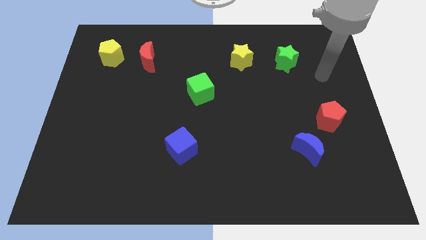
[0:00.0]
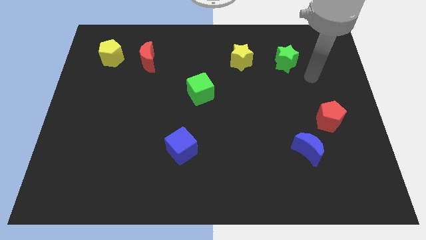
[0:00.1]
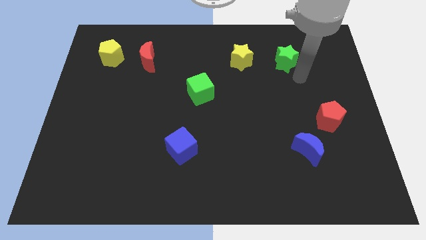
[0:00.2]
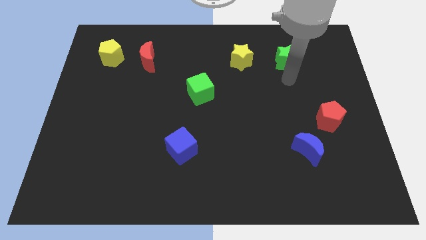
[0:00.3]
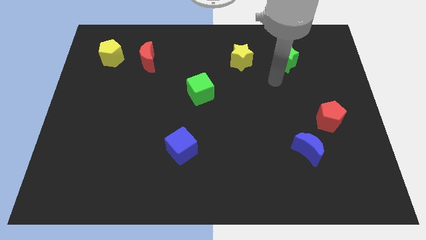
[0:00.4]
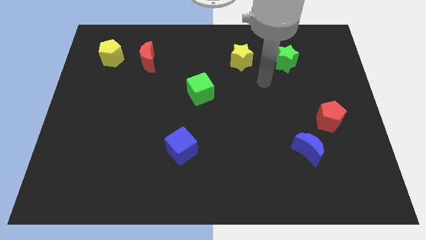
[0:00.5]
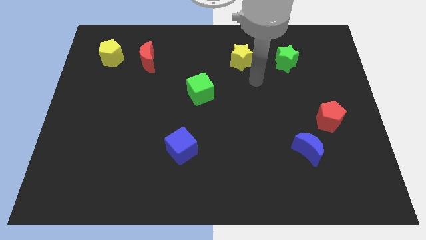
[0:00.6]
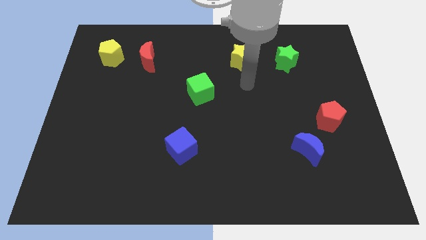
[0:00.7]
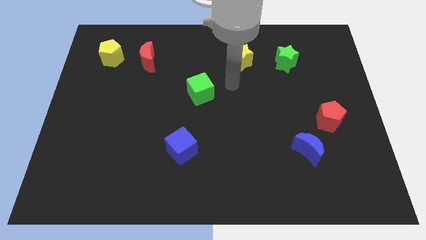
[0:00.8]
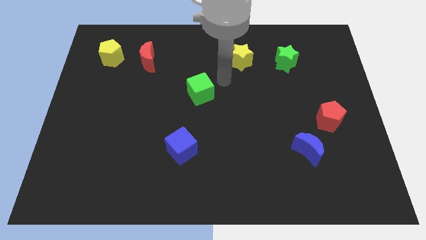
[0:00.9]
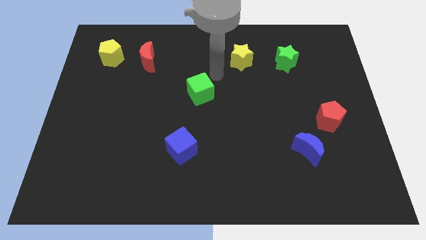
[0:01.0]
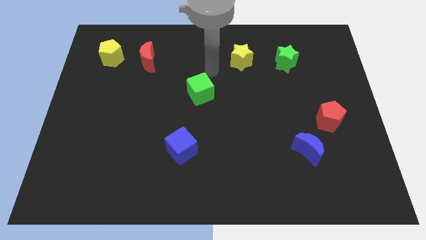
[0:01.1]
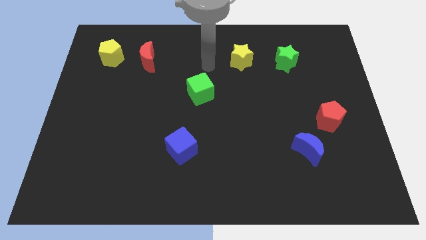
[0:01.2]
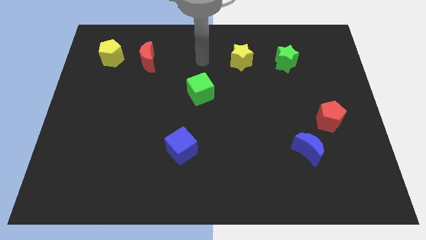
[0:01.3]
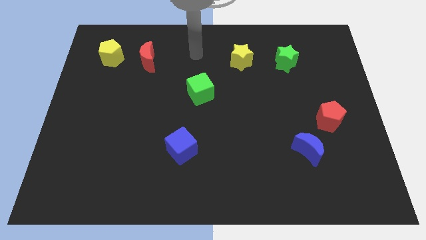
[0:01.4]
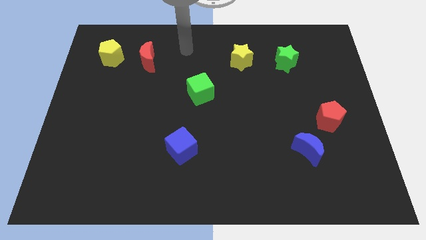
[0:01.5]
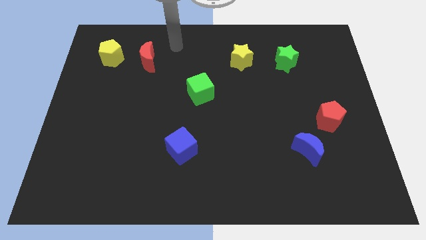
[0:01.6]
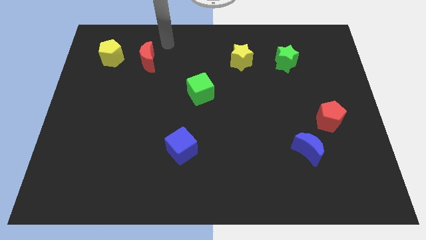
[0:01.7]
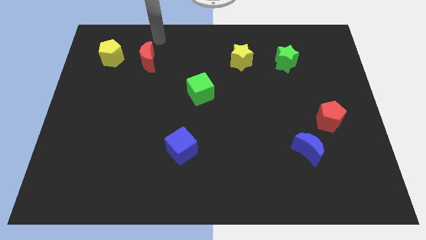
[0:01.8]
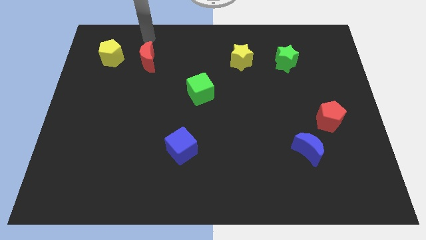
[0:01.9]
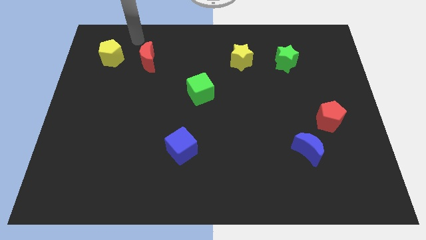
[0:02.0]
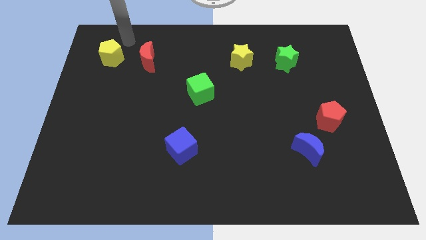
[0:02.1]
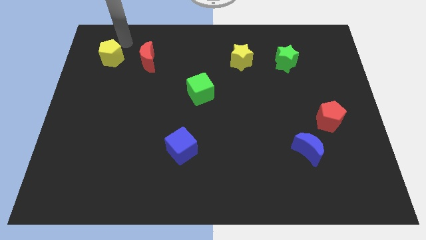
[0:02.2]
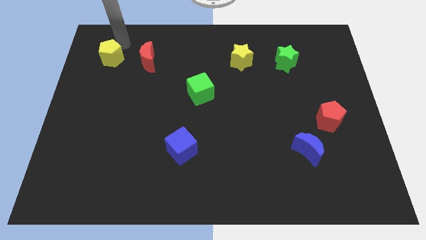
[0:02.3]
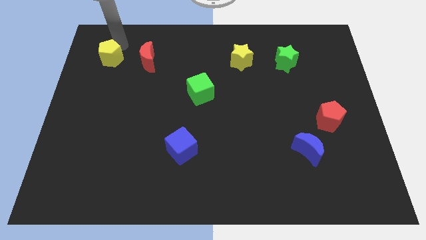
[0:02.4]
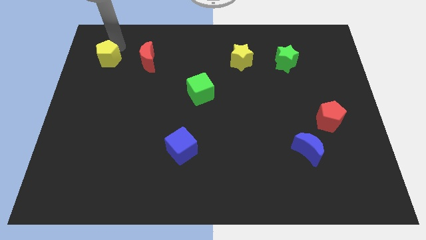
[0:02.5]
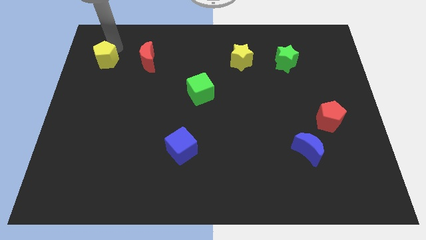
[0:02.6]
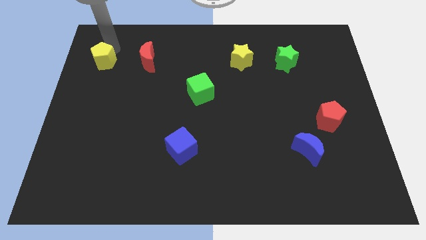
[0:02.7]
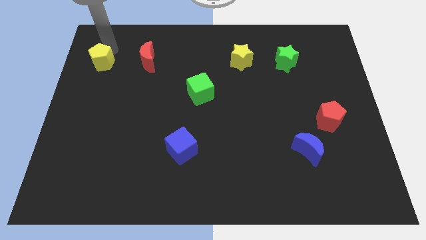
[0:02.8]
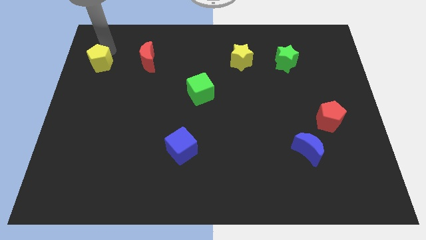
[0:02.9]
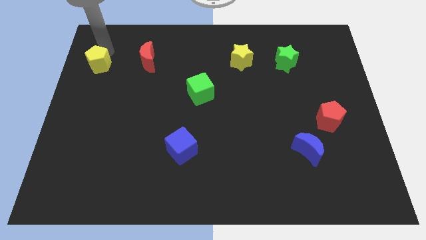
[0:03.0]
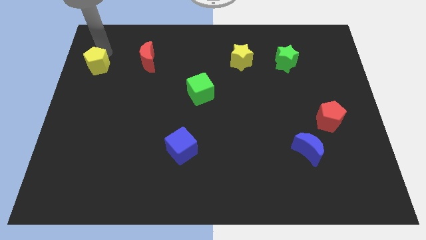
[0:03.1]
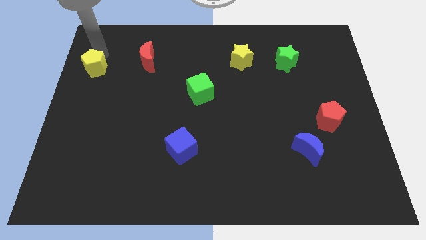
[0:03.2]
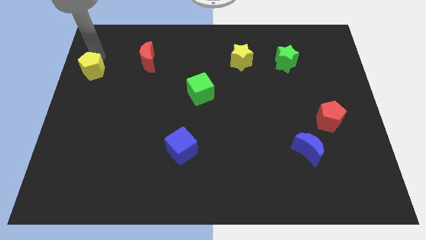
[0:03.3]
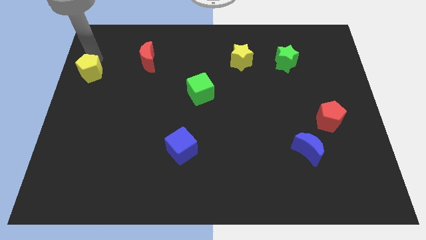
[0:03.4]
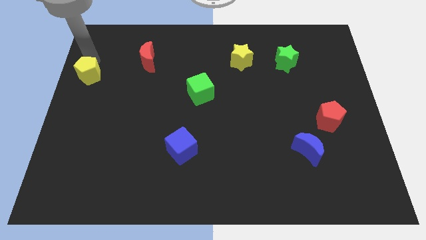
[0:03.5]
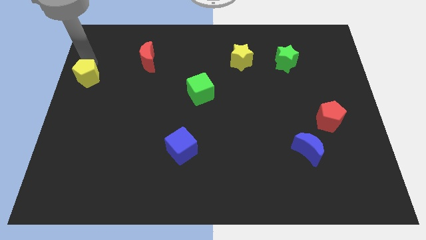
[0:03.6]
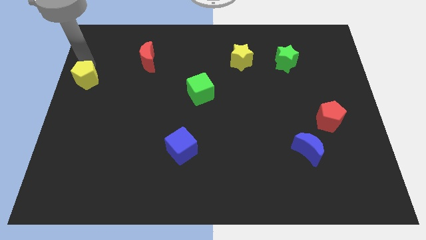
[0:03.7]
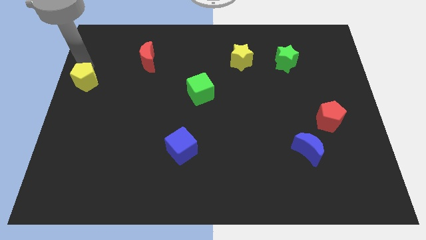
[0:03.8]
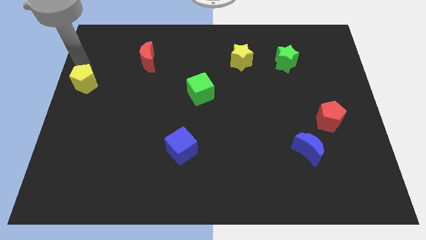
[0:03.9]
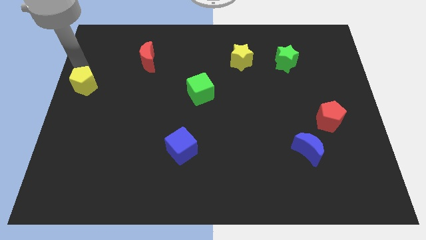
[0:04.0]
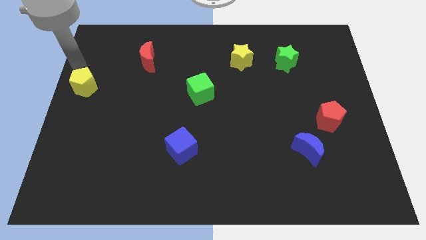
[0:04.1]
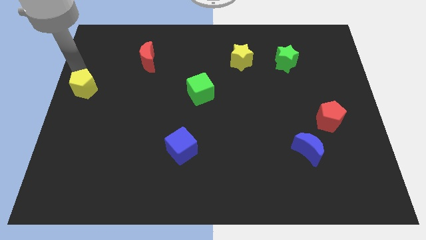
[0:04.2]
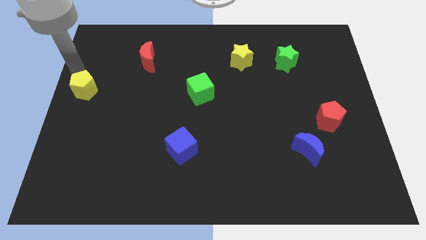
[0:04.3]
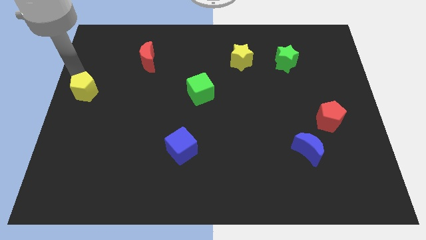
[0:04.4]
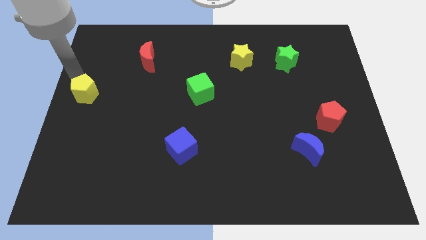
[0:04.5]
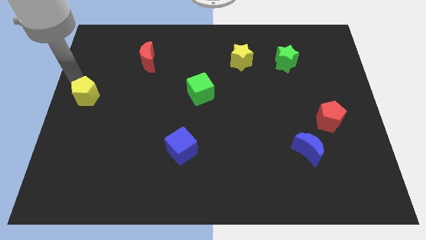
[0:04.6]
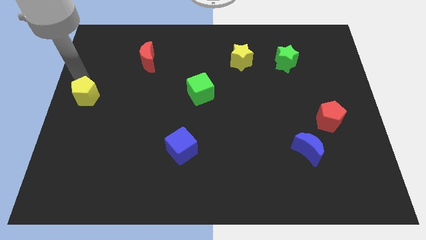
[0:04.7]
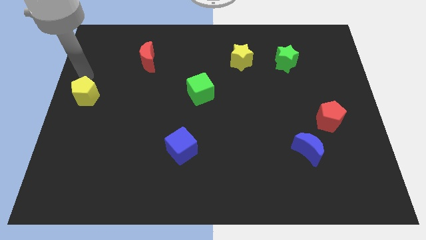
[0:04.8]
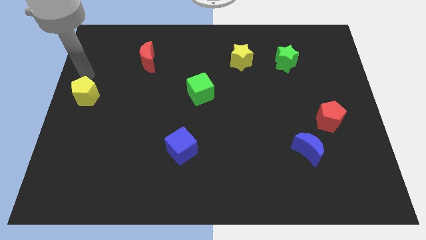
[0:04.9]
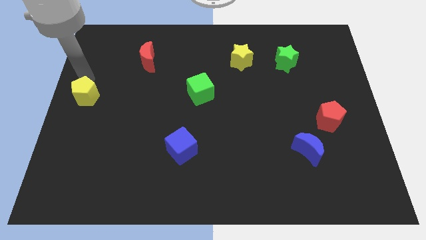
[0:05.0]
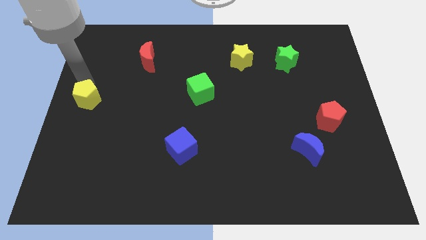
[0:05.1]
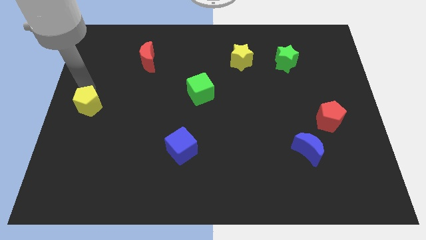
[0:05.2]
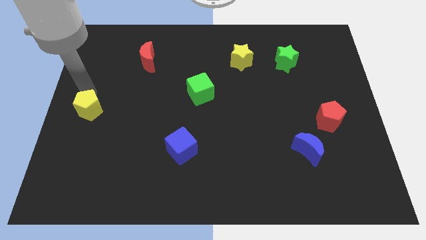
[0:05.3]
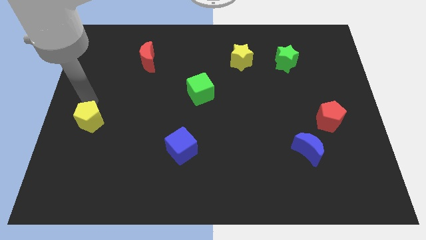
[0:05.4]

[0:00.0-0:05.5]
slide the yellow pentagon down

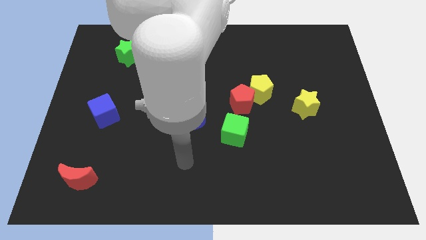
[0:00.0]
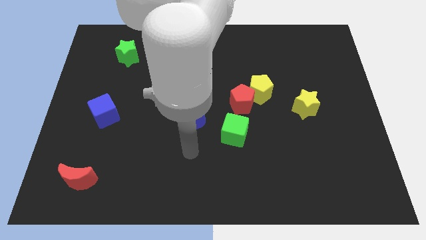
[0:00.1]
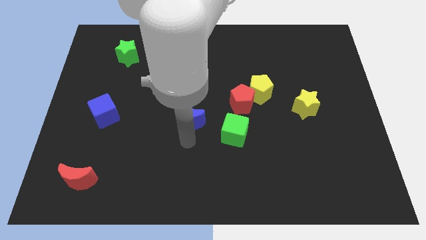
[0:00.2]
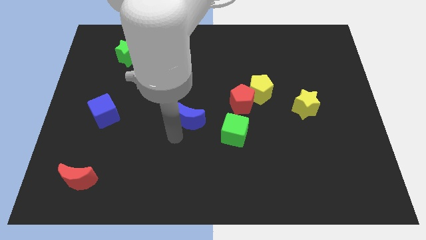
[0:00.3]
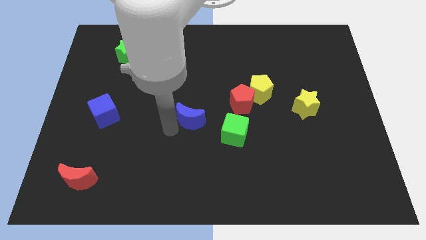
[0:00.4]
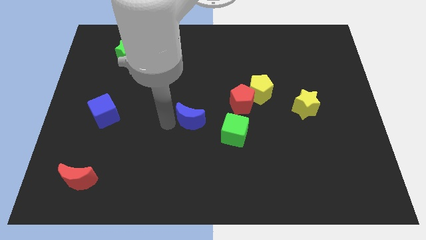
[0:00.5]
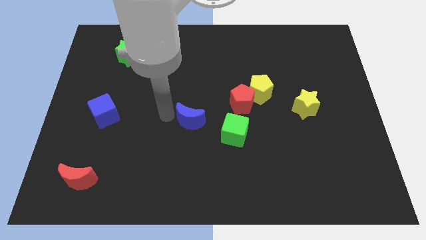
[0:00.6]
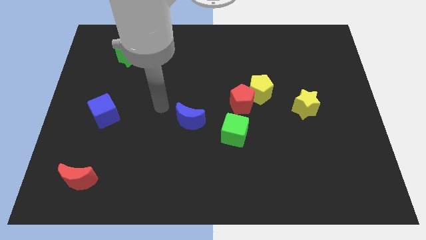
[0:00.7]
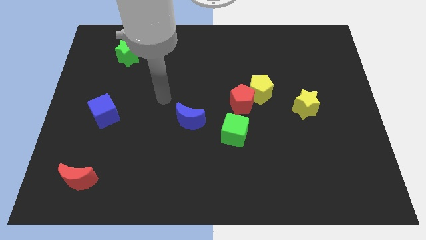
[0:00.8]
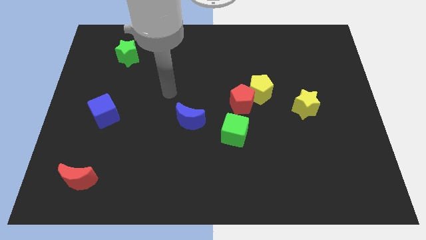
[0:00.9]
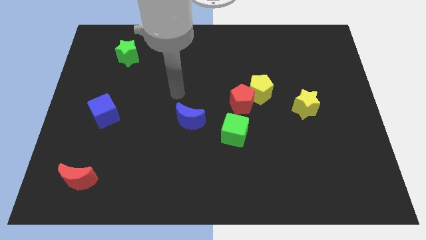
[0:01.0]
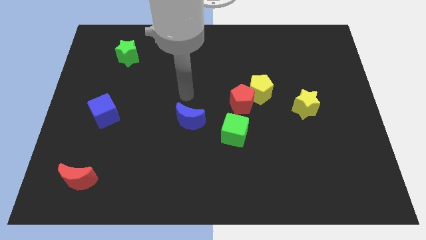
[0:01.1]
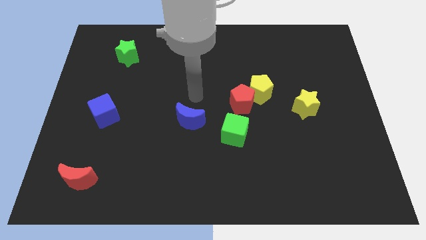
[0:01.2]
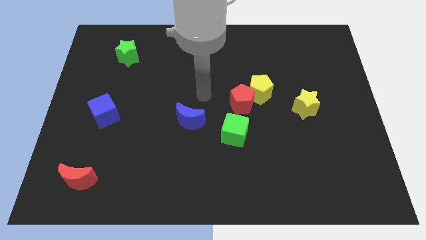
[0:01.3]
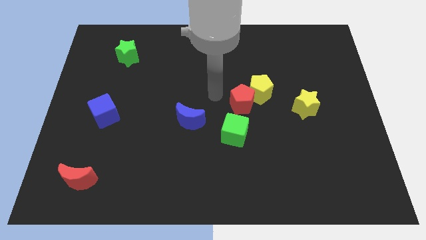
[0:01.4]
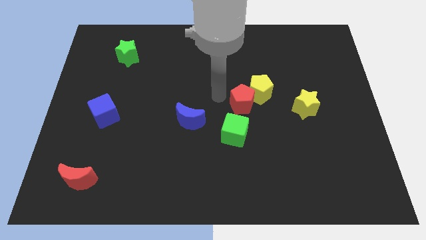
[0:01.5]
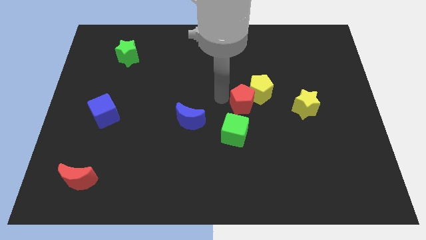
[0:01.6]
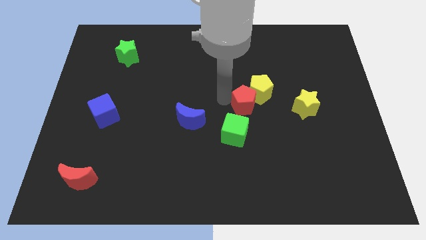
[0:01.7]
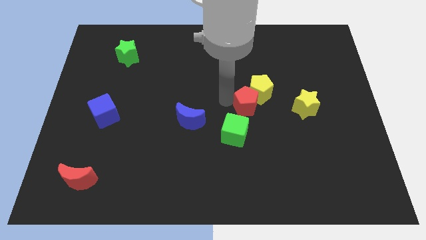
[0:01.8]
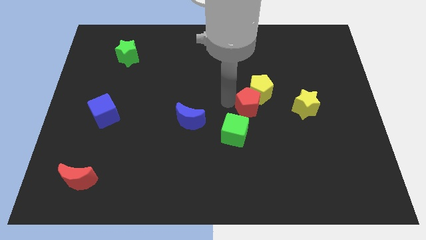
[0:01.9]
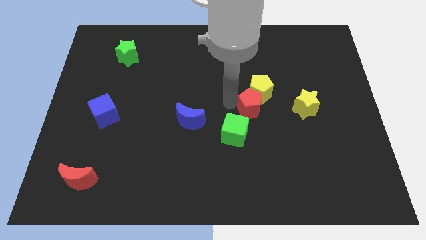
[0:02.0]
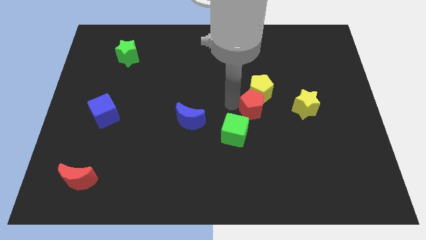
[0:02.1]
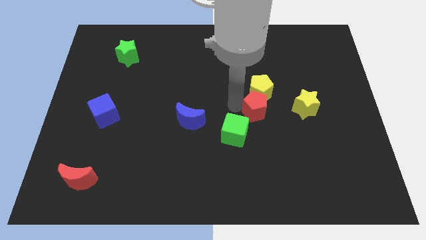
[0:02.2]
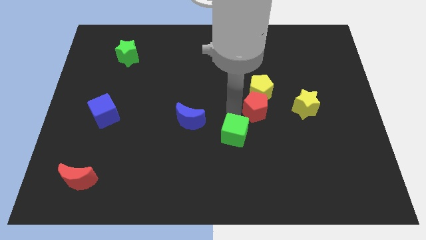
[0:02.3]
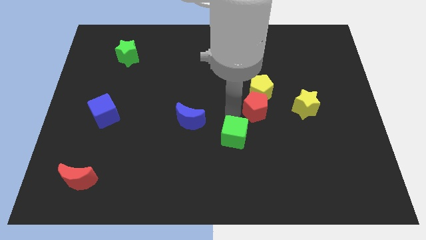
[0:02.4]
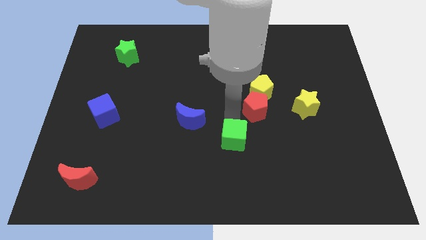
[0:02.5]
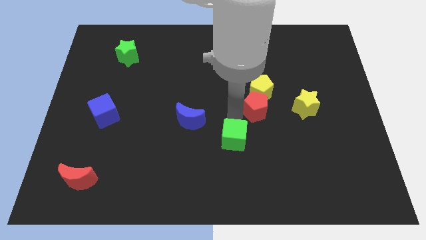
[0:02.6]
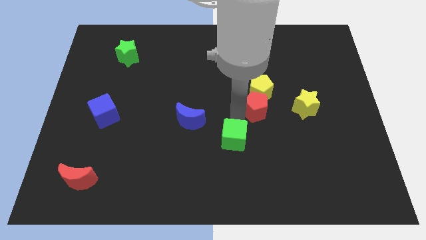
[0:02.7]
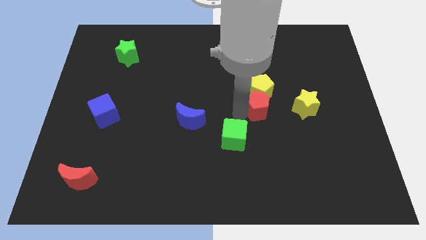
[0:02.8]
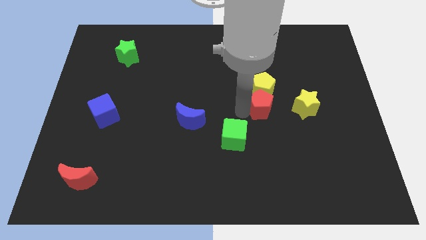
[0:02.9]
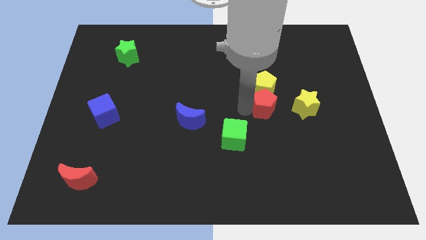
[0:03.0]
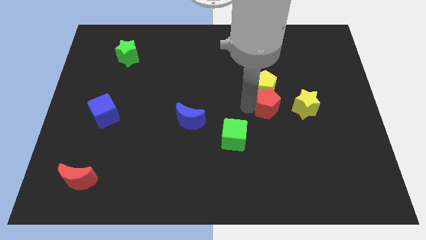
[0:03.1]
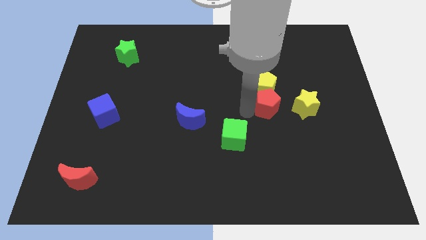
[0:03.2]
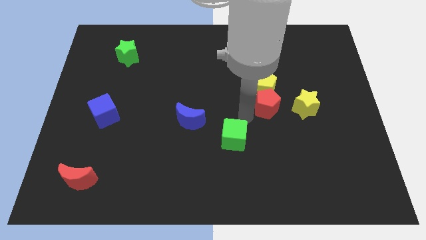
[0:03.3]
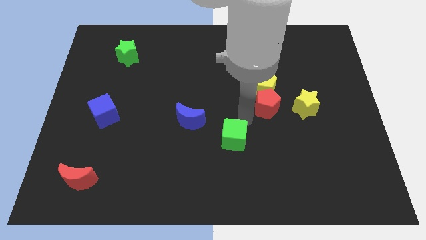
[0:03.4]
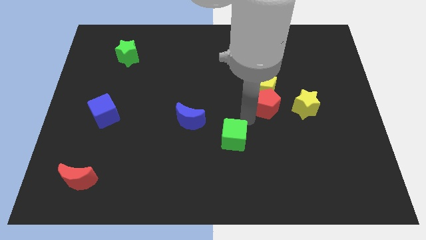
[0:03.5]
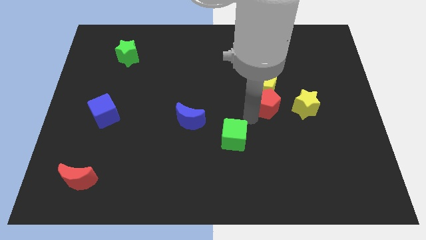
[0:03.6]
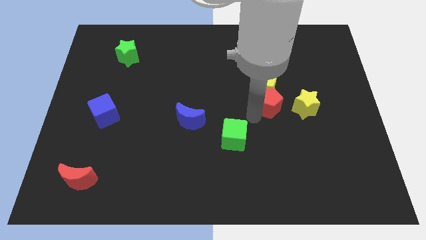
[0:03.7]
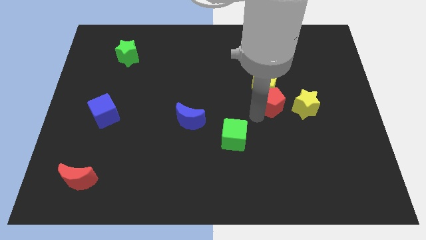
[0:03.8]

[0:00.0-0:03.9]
slightly move the red pentagon right
